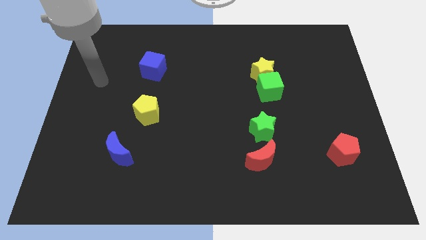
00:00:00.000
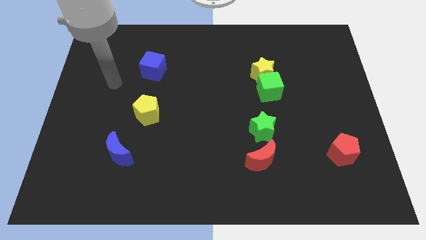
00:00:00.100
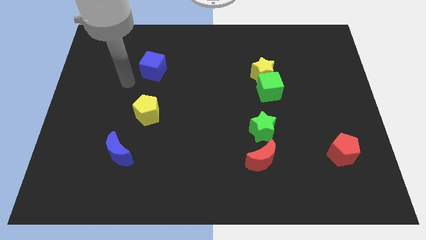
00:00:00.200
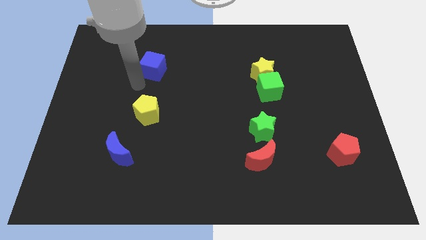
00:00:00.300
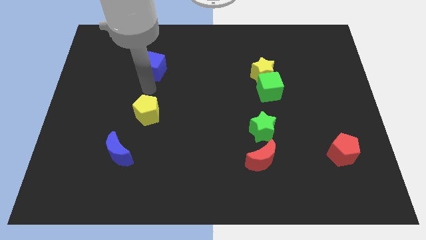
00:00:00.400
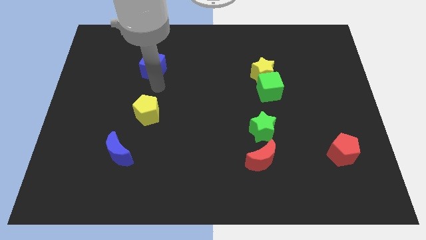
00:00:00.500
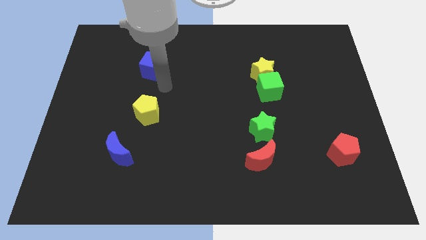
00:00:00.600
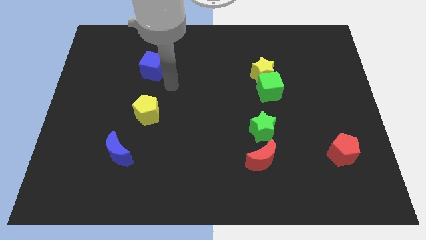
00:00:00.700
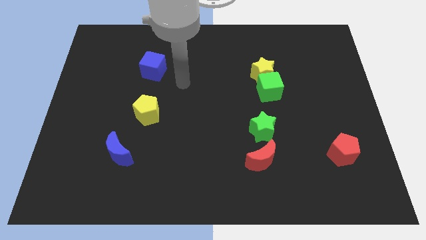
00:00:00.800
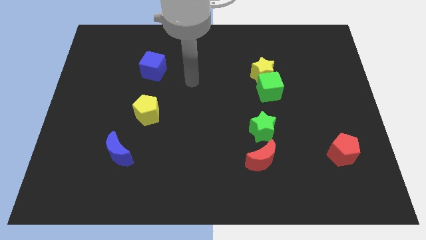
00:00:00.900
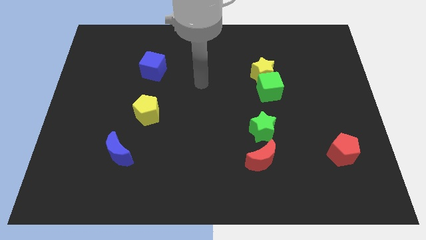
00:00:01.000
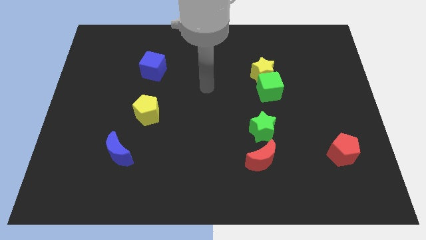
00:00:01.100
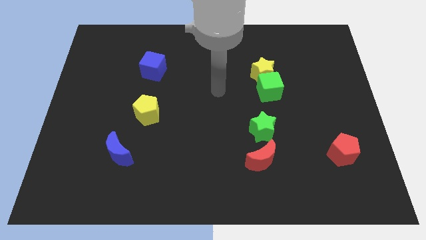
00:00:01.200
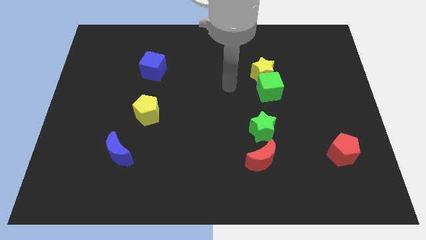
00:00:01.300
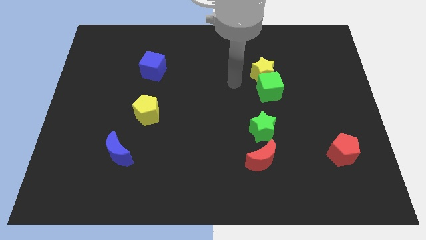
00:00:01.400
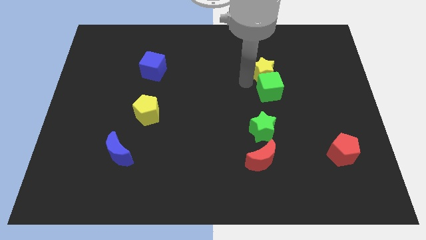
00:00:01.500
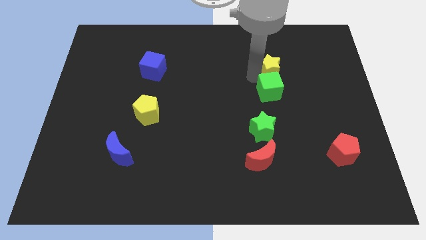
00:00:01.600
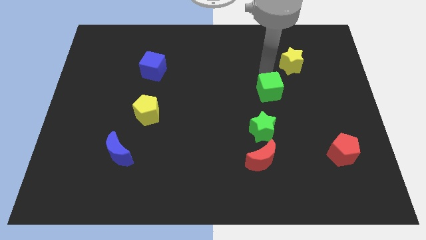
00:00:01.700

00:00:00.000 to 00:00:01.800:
pull the green cube apart from the yellow star

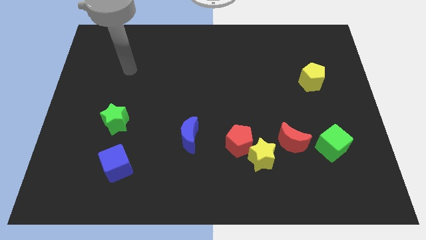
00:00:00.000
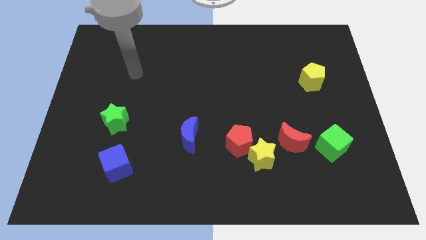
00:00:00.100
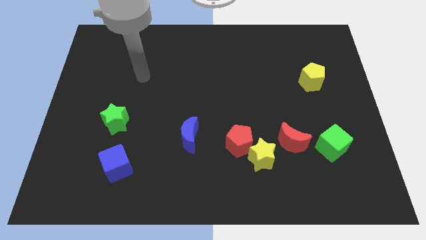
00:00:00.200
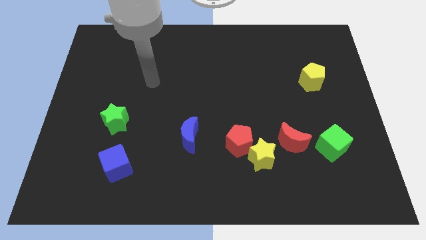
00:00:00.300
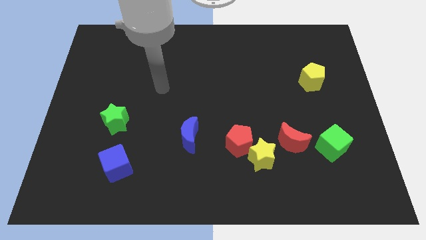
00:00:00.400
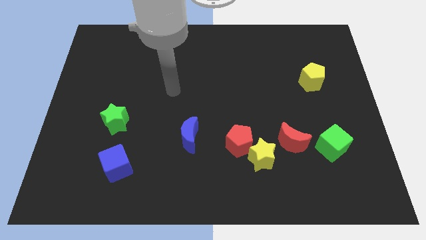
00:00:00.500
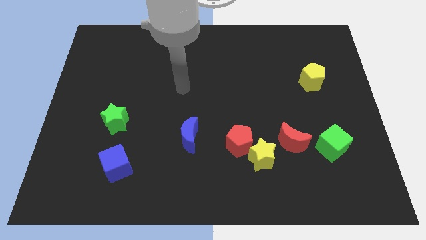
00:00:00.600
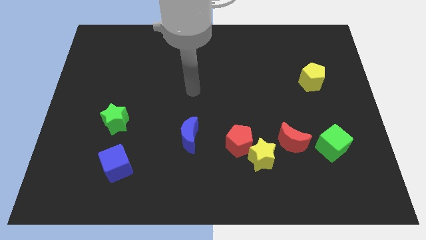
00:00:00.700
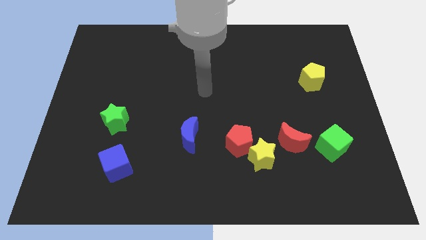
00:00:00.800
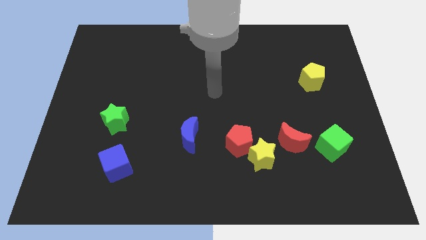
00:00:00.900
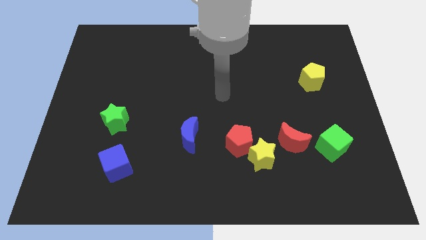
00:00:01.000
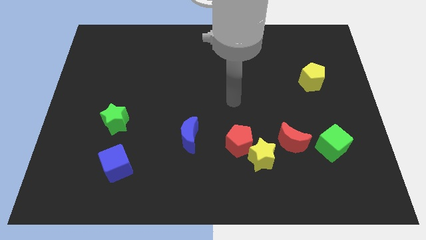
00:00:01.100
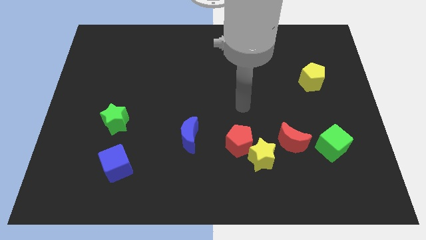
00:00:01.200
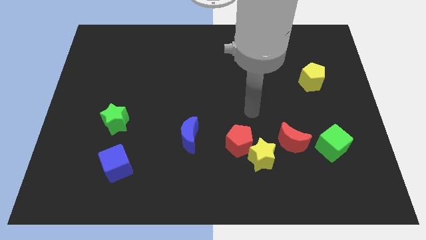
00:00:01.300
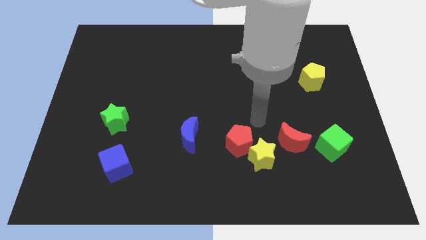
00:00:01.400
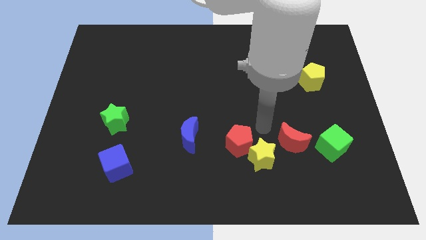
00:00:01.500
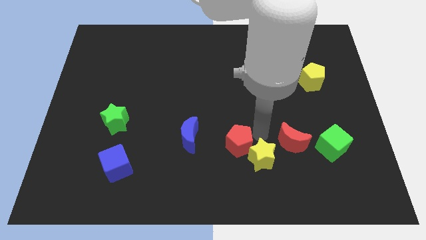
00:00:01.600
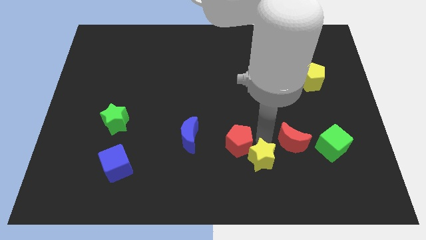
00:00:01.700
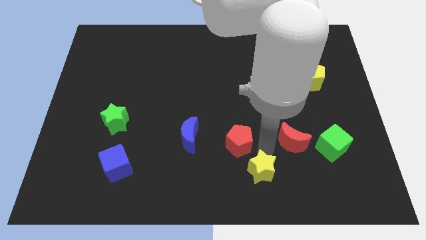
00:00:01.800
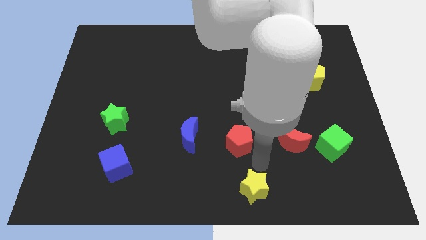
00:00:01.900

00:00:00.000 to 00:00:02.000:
pull the red pentagon apart from the yellow star

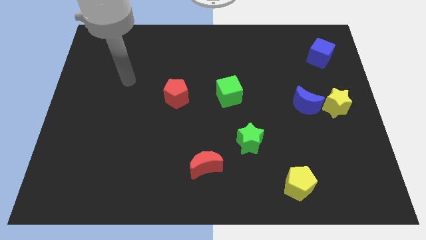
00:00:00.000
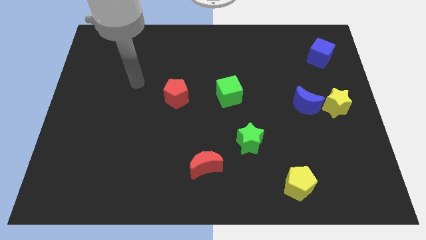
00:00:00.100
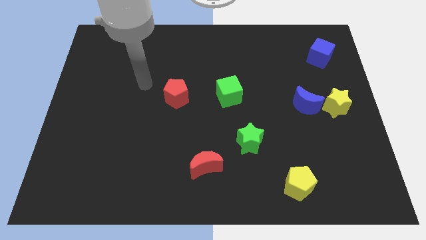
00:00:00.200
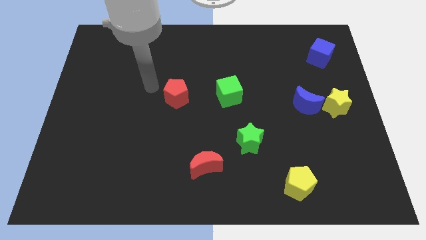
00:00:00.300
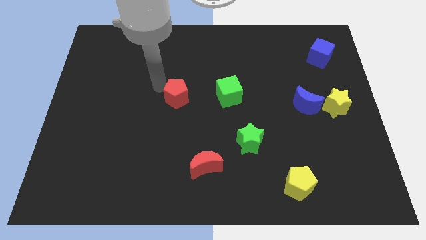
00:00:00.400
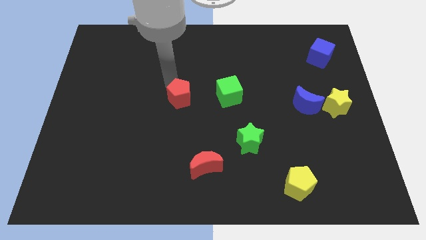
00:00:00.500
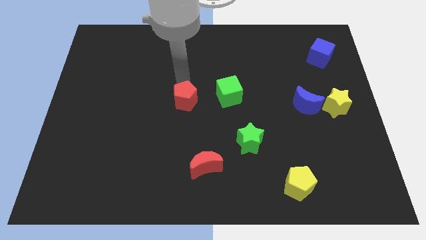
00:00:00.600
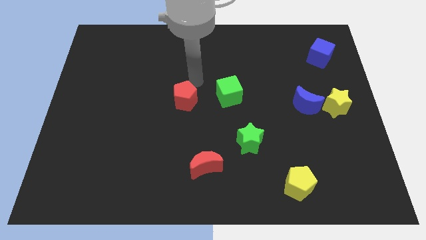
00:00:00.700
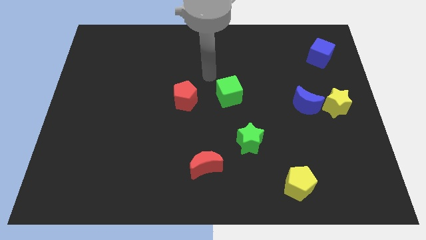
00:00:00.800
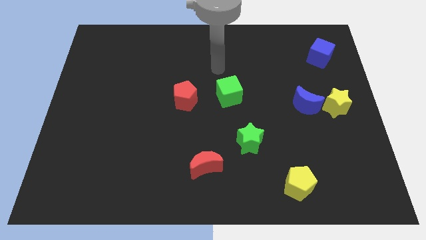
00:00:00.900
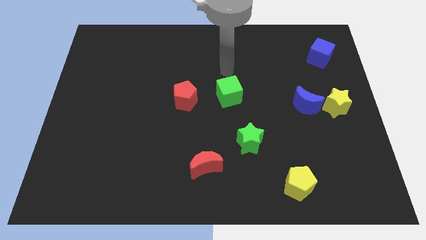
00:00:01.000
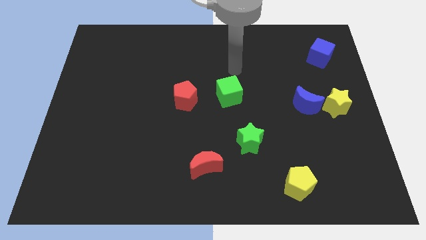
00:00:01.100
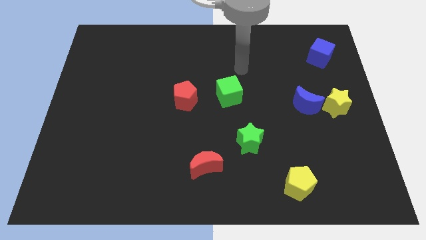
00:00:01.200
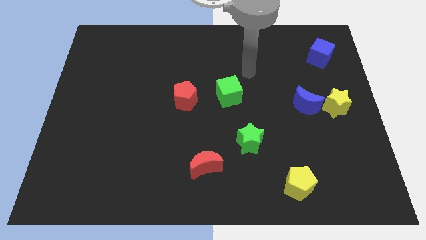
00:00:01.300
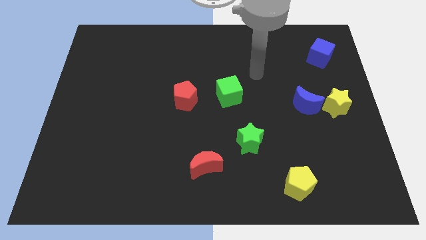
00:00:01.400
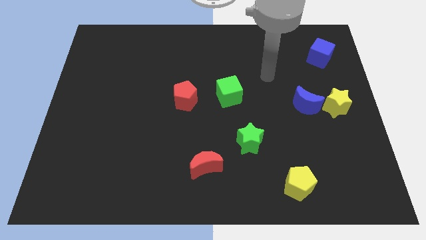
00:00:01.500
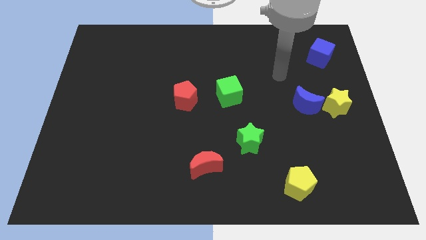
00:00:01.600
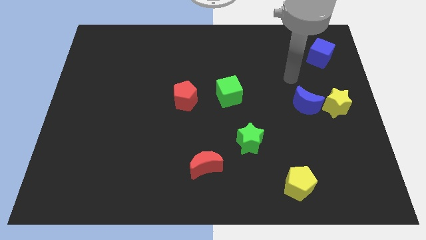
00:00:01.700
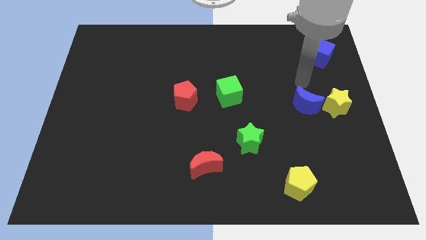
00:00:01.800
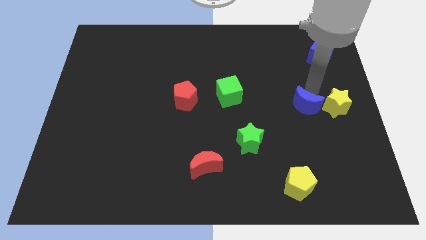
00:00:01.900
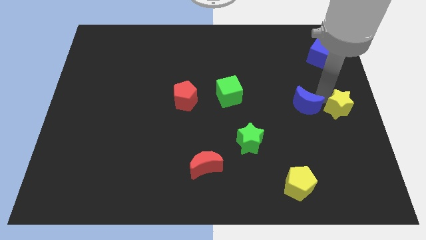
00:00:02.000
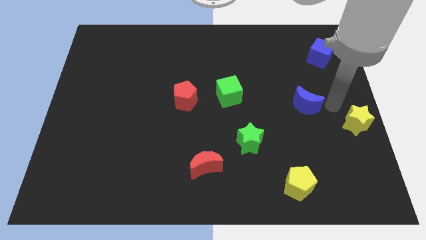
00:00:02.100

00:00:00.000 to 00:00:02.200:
move the blue moon away from the yellow star

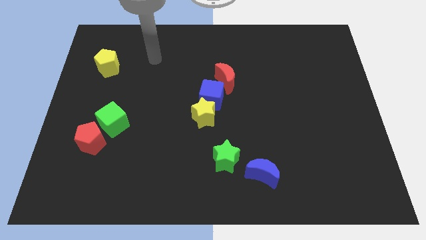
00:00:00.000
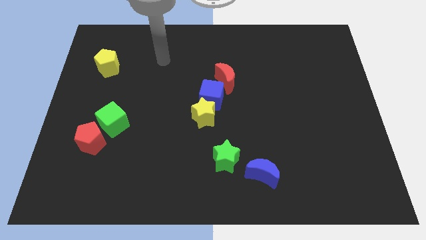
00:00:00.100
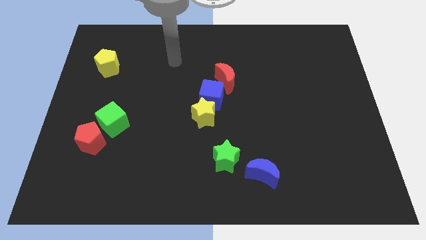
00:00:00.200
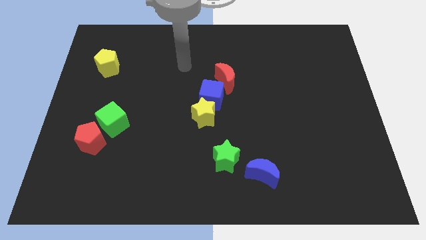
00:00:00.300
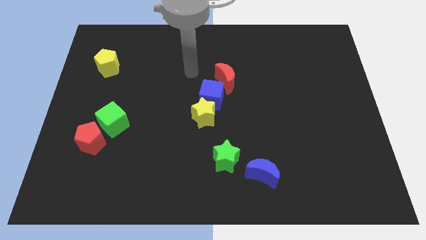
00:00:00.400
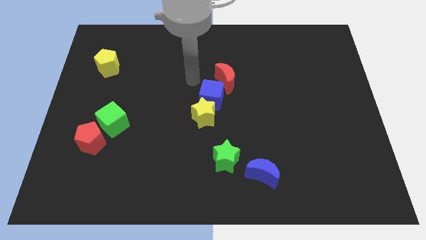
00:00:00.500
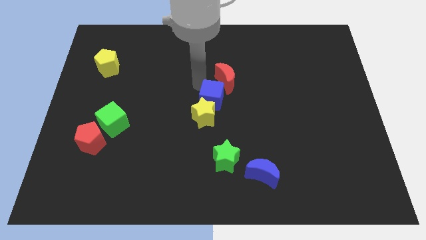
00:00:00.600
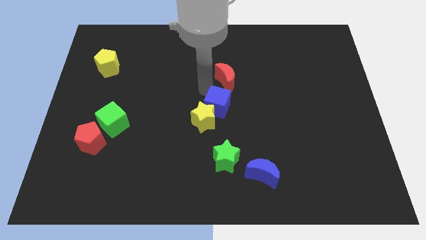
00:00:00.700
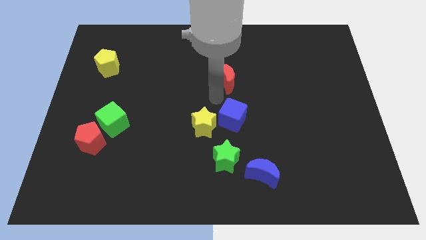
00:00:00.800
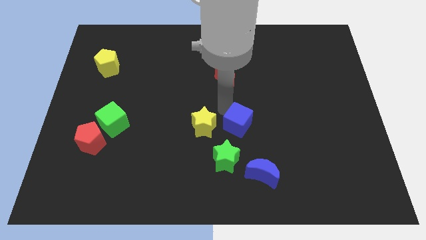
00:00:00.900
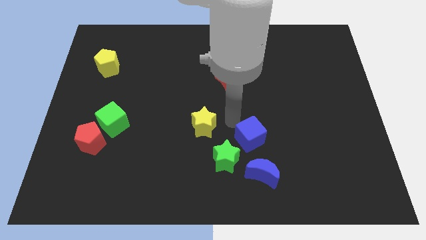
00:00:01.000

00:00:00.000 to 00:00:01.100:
separate the yellow star from the blue cube

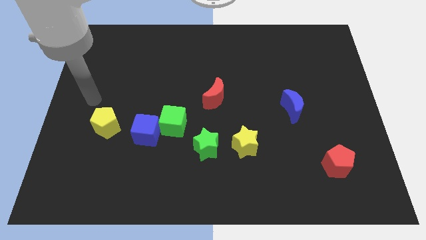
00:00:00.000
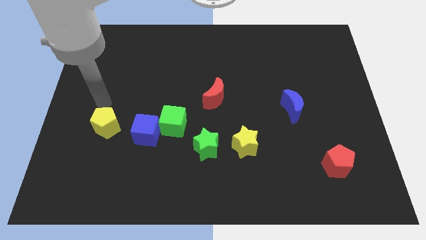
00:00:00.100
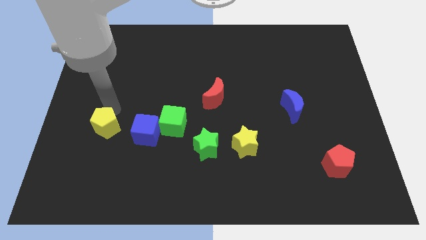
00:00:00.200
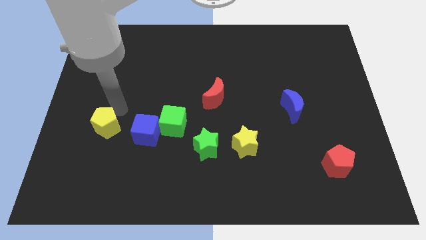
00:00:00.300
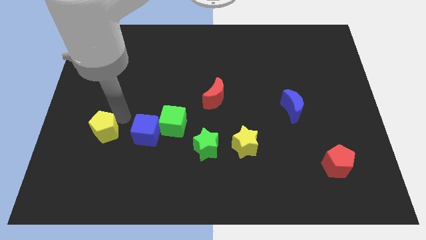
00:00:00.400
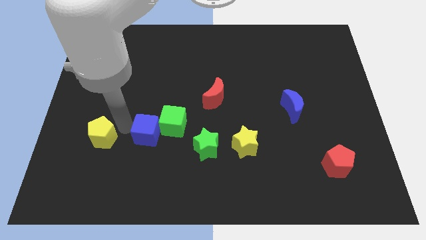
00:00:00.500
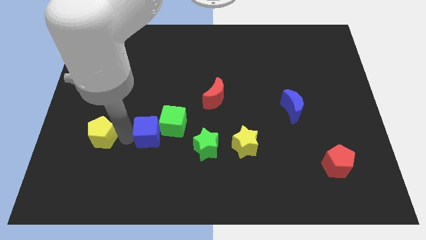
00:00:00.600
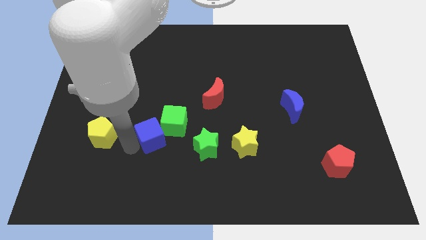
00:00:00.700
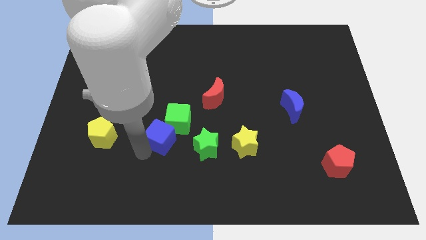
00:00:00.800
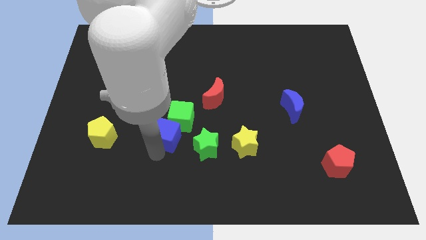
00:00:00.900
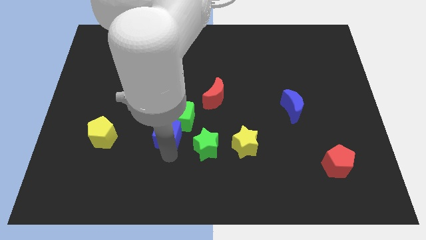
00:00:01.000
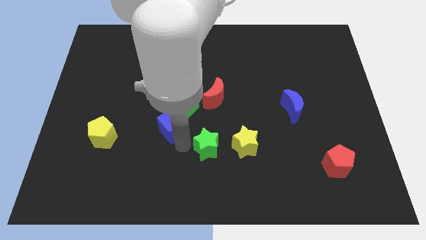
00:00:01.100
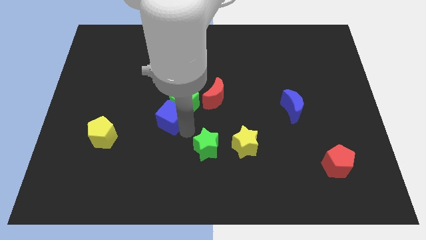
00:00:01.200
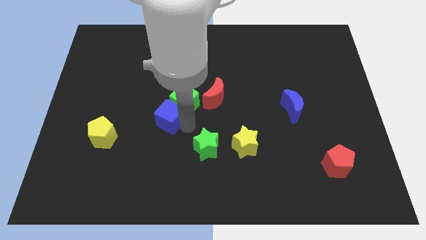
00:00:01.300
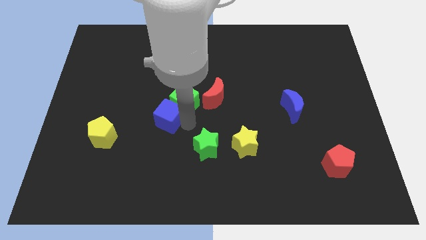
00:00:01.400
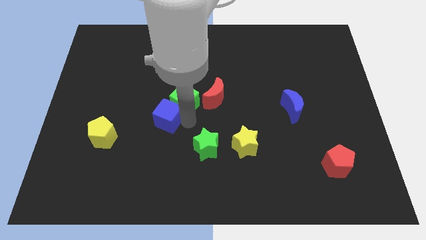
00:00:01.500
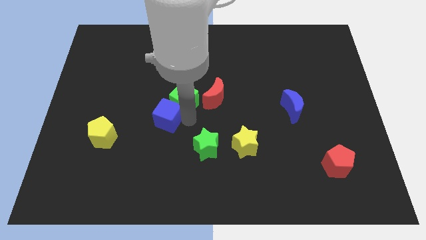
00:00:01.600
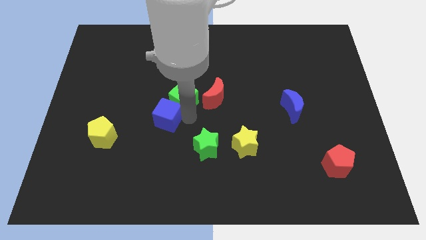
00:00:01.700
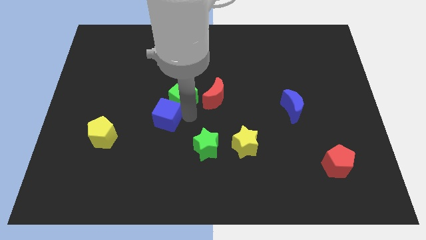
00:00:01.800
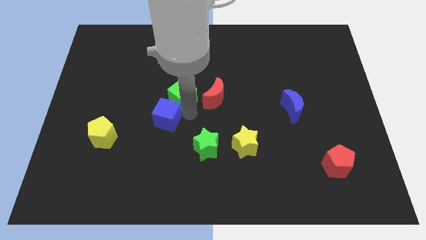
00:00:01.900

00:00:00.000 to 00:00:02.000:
pull the green cube apart from the blue cube and green star
